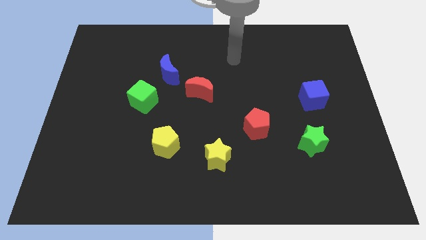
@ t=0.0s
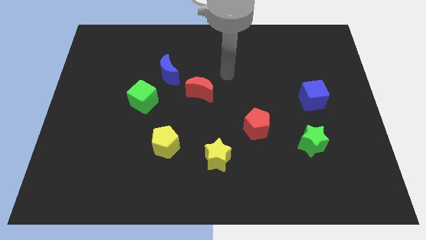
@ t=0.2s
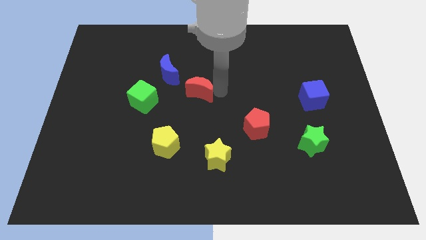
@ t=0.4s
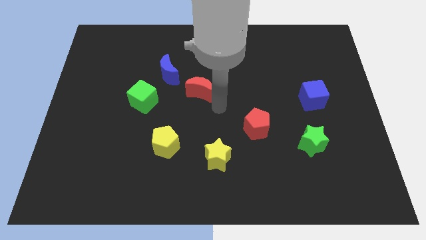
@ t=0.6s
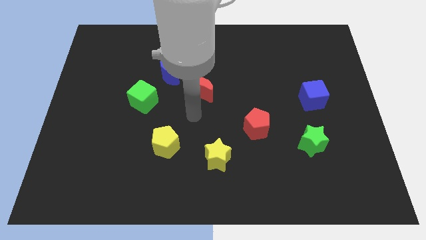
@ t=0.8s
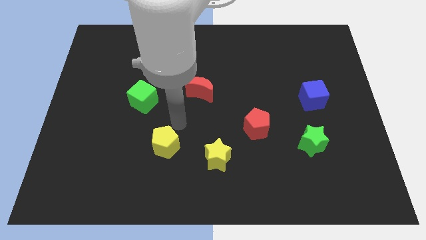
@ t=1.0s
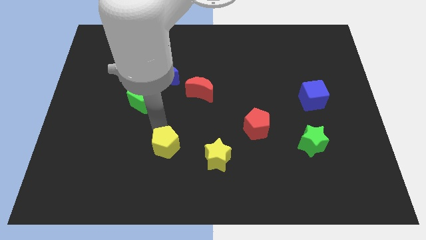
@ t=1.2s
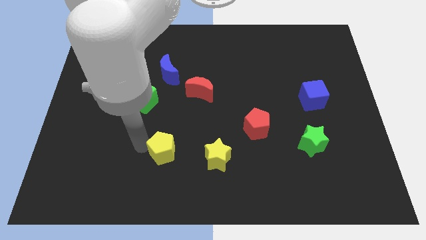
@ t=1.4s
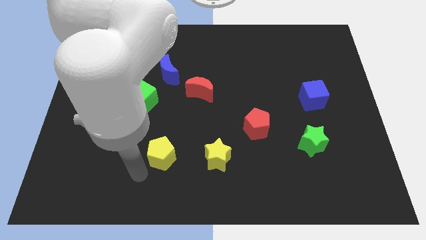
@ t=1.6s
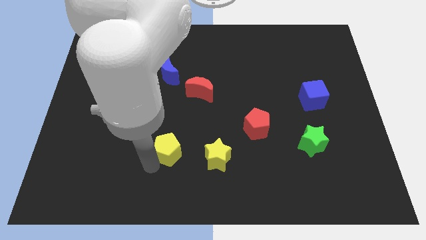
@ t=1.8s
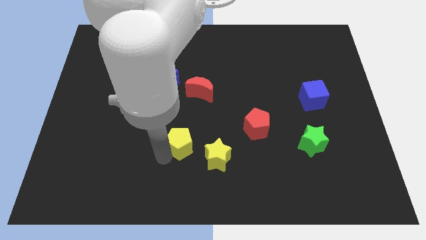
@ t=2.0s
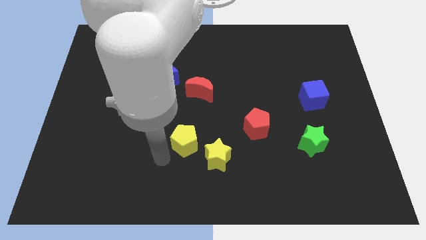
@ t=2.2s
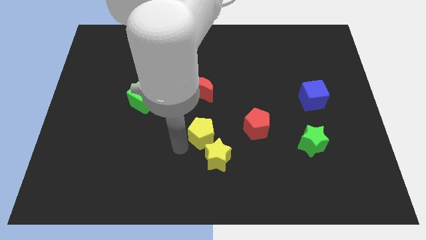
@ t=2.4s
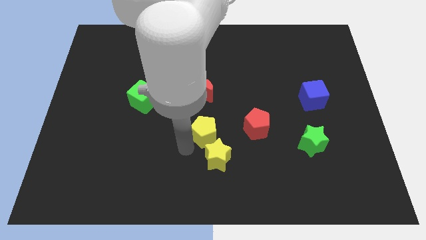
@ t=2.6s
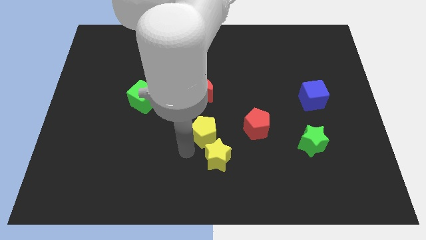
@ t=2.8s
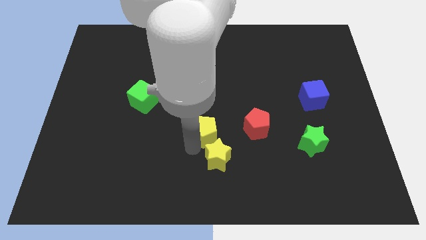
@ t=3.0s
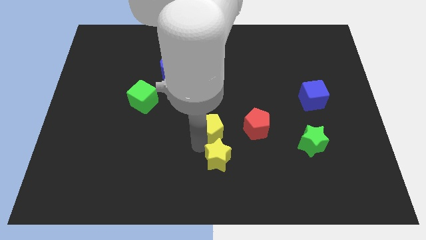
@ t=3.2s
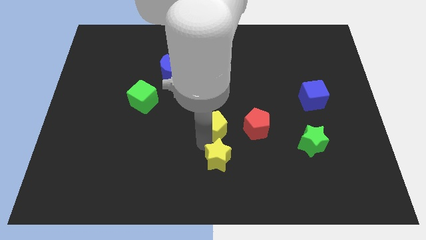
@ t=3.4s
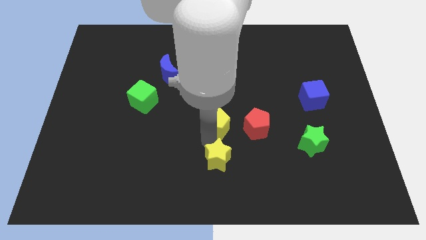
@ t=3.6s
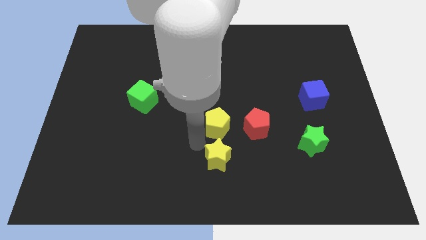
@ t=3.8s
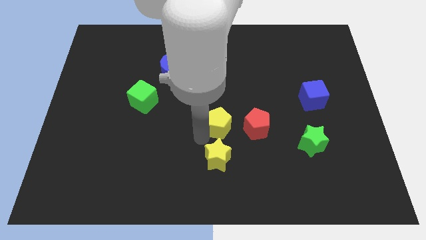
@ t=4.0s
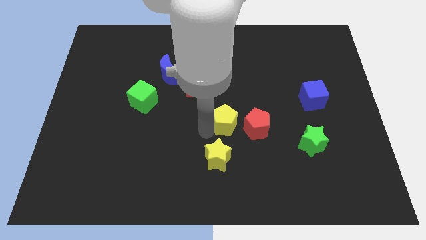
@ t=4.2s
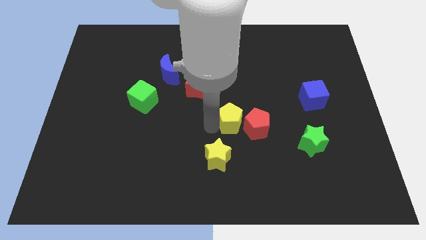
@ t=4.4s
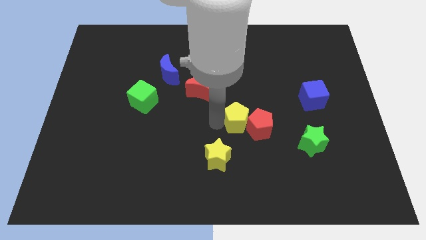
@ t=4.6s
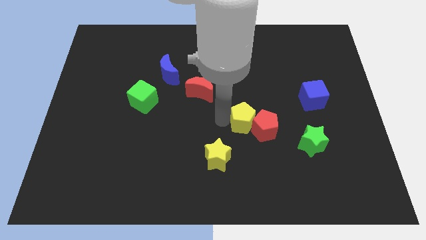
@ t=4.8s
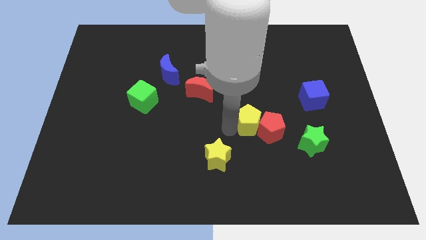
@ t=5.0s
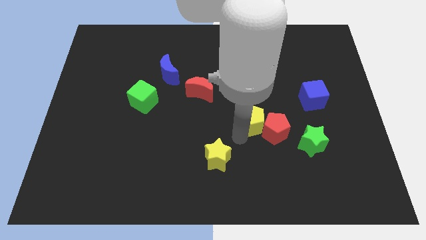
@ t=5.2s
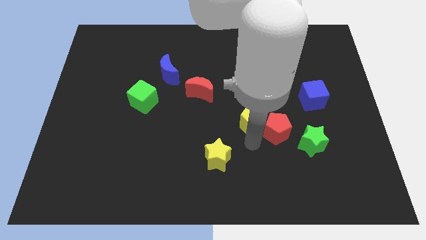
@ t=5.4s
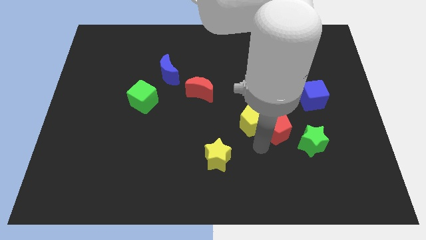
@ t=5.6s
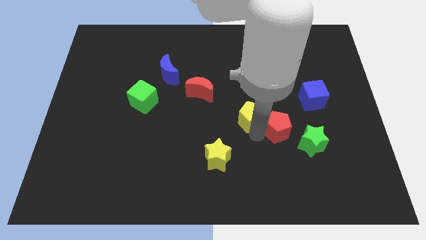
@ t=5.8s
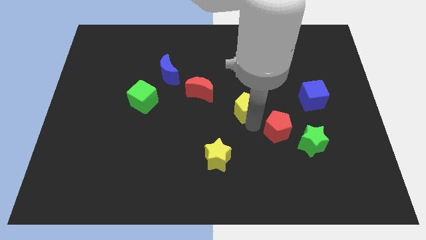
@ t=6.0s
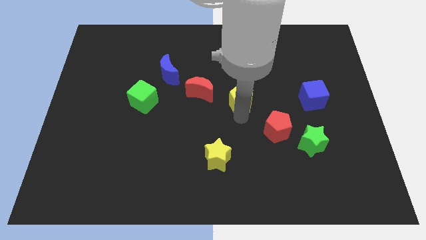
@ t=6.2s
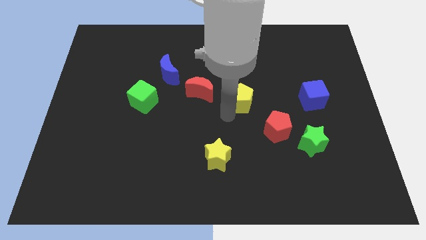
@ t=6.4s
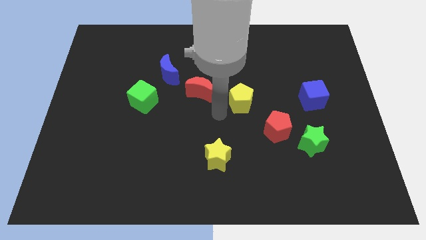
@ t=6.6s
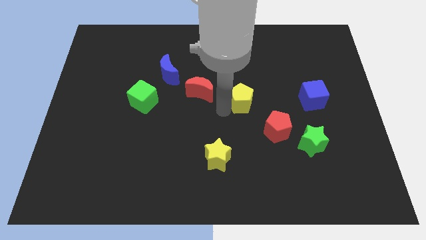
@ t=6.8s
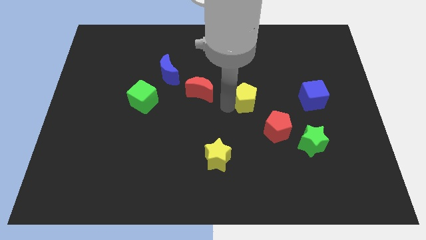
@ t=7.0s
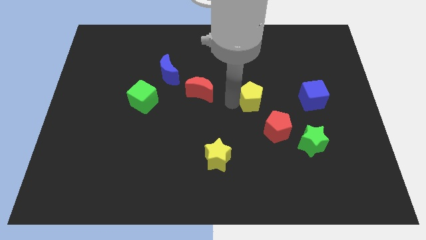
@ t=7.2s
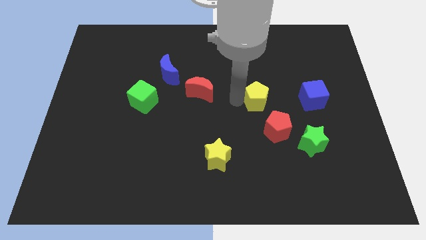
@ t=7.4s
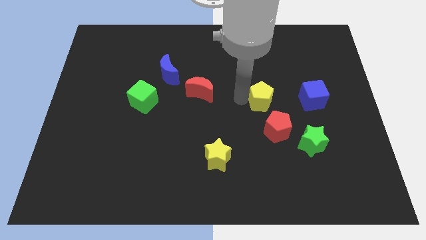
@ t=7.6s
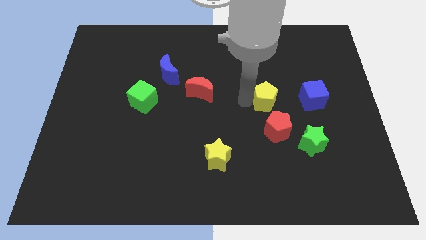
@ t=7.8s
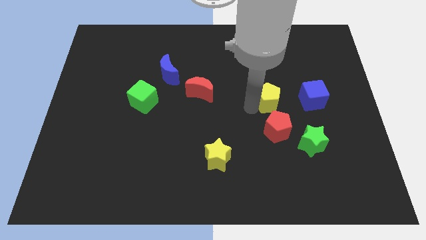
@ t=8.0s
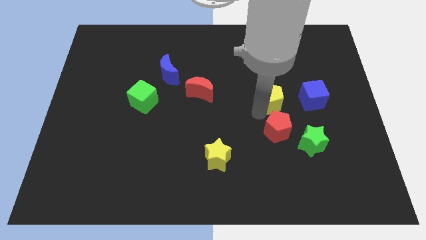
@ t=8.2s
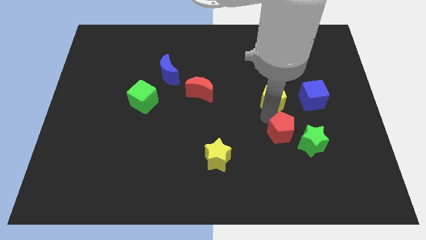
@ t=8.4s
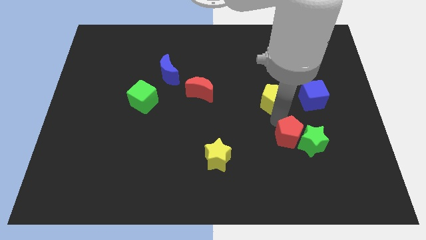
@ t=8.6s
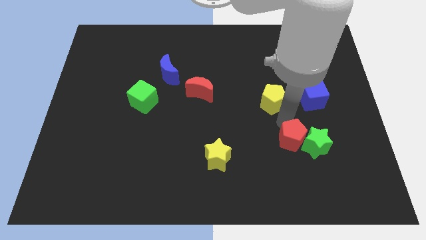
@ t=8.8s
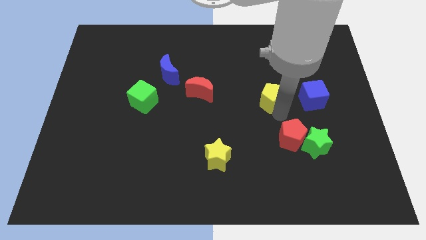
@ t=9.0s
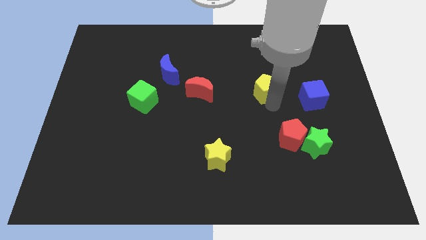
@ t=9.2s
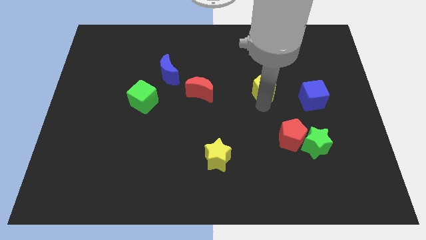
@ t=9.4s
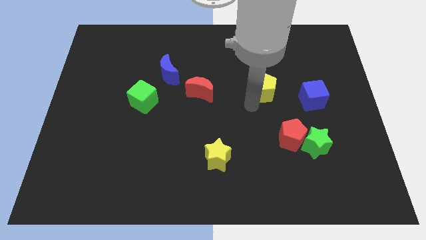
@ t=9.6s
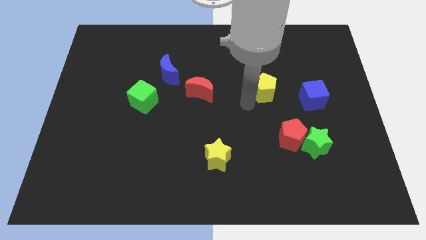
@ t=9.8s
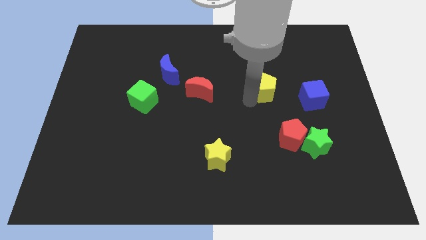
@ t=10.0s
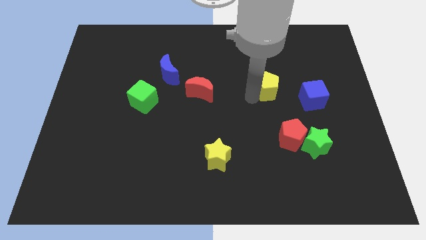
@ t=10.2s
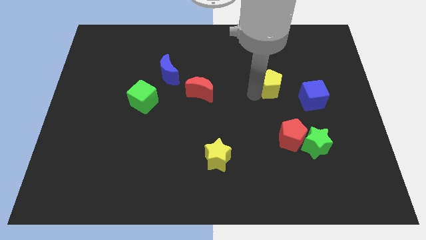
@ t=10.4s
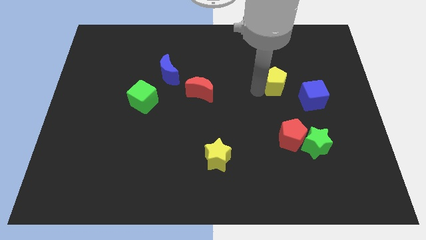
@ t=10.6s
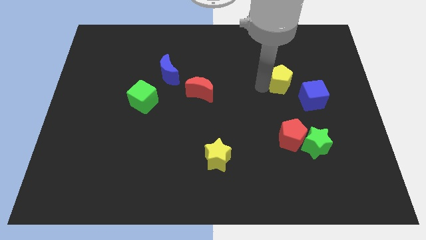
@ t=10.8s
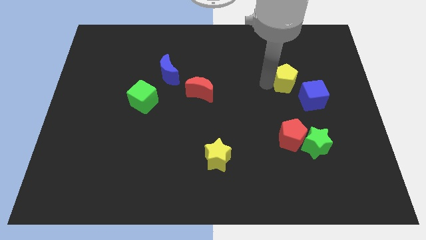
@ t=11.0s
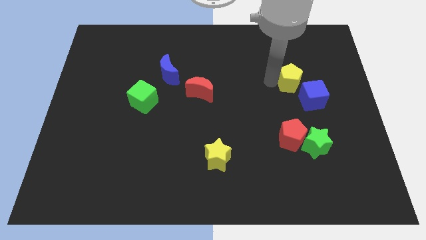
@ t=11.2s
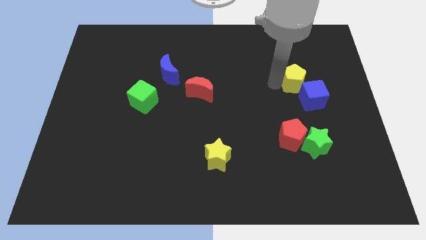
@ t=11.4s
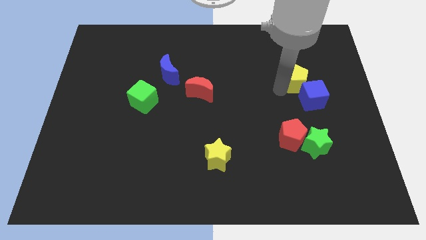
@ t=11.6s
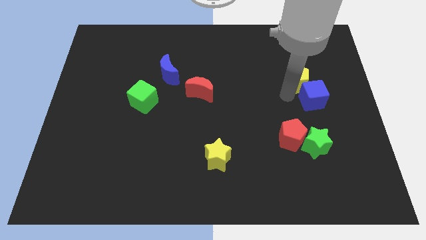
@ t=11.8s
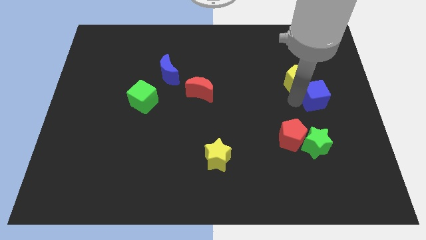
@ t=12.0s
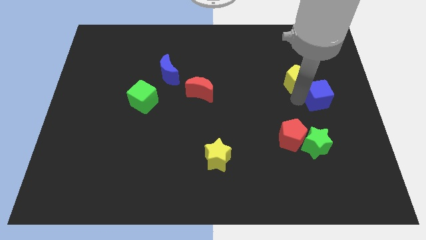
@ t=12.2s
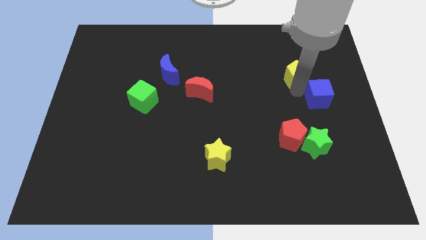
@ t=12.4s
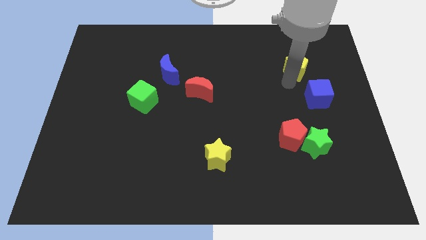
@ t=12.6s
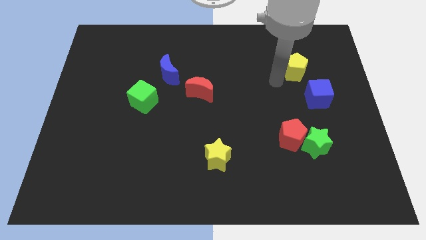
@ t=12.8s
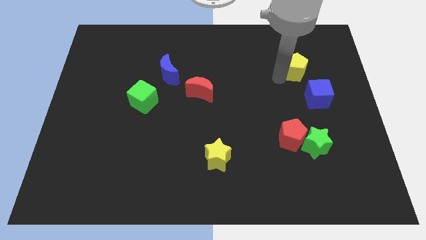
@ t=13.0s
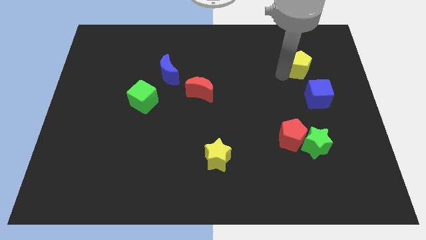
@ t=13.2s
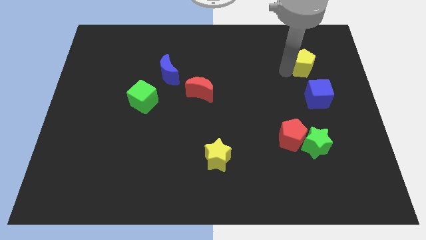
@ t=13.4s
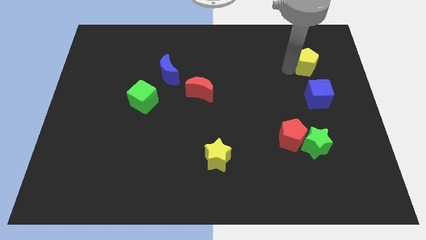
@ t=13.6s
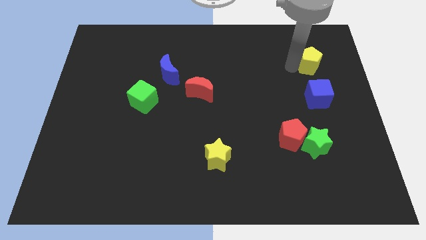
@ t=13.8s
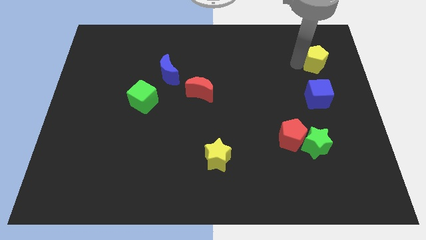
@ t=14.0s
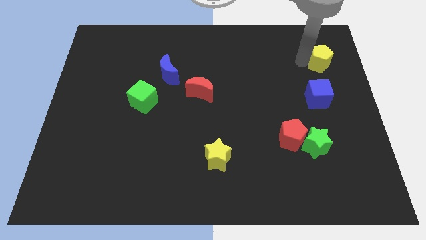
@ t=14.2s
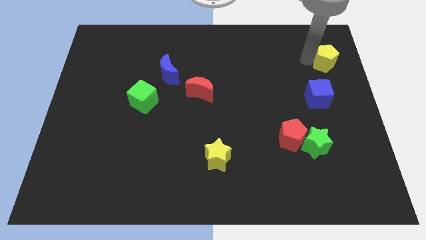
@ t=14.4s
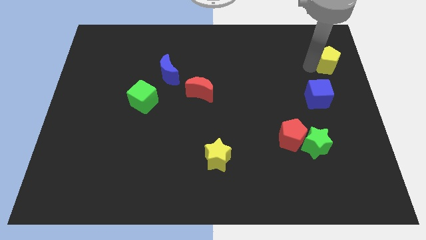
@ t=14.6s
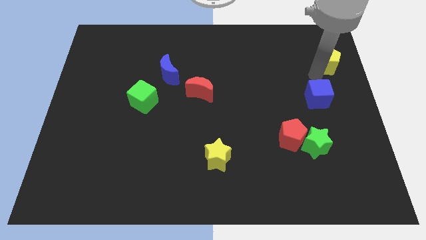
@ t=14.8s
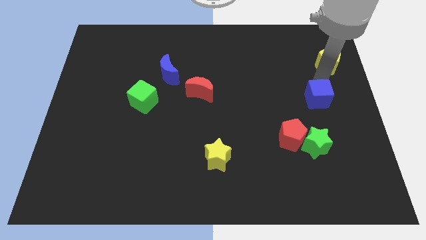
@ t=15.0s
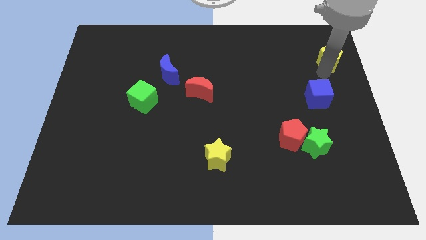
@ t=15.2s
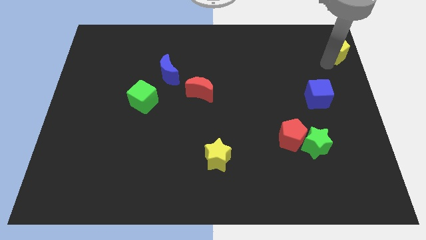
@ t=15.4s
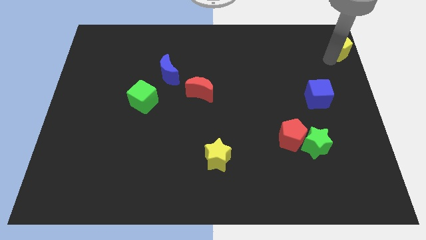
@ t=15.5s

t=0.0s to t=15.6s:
put the yellow pentagon to the top right
